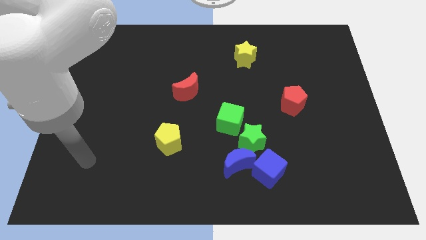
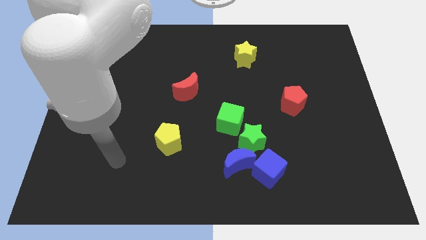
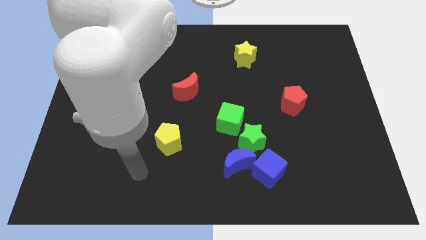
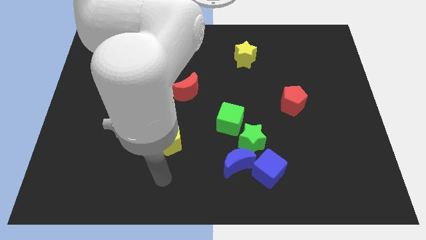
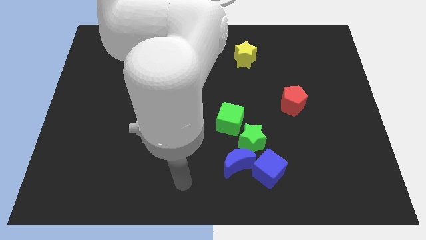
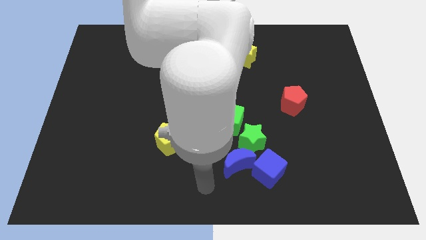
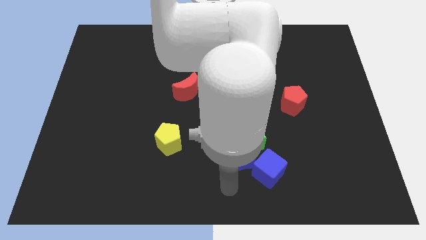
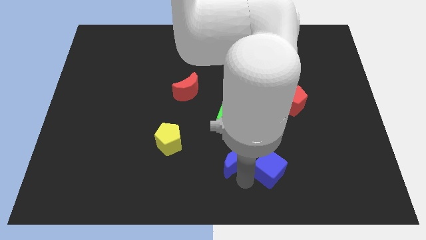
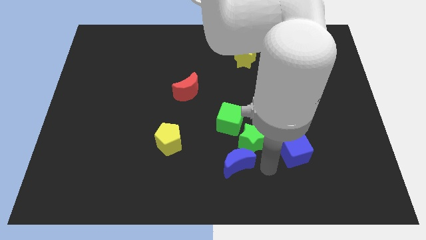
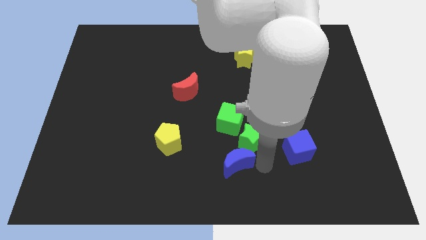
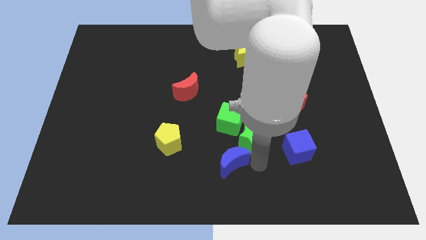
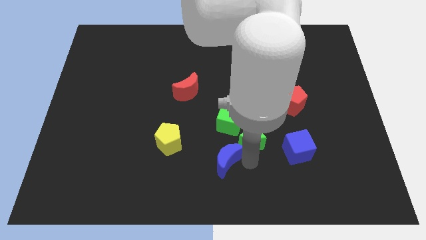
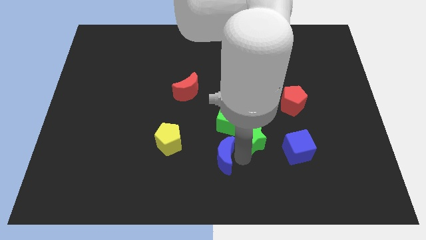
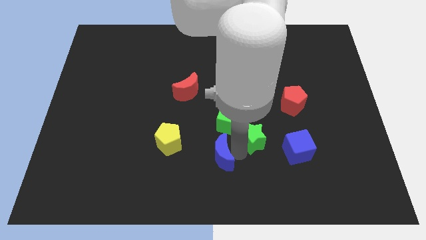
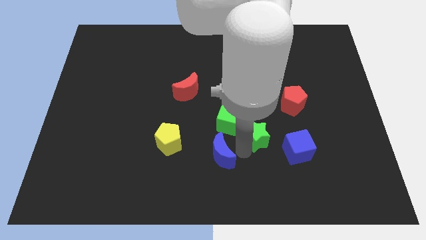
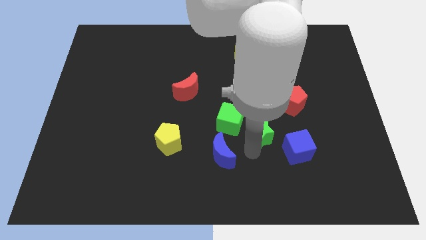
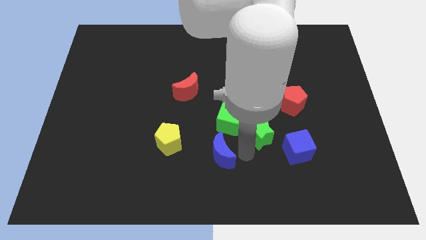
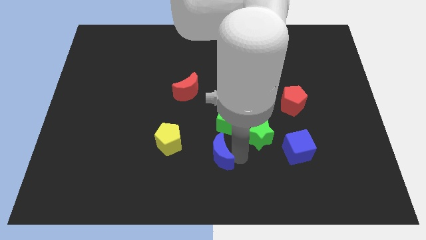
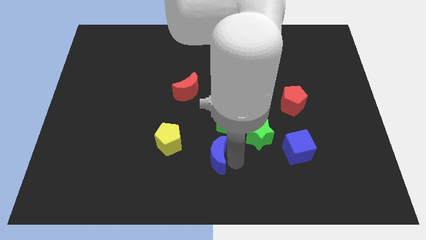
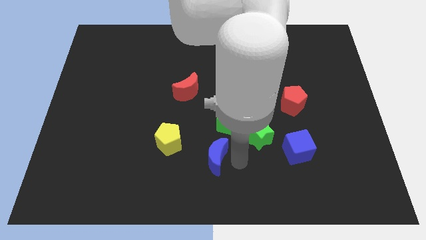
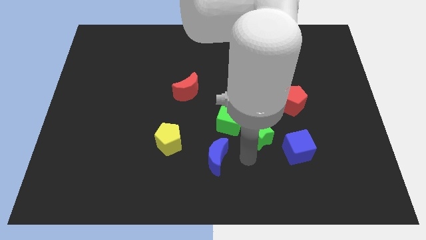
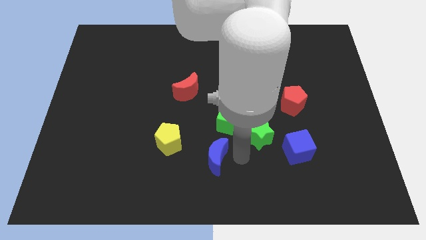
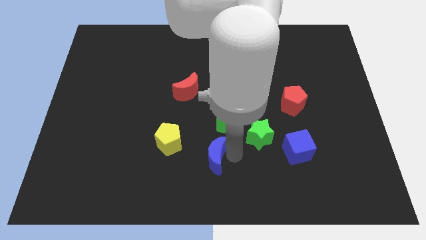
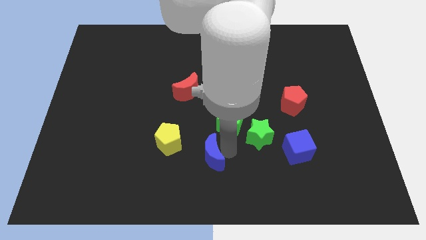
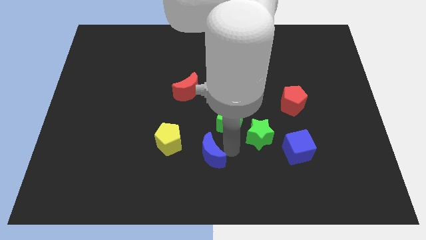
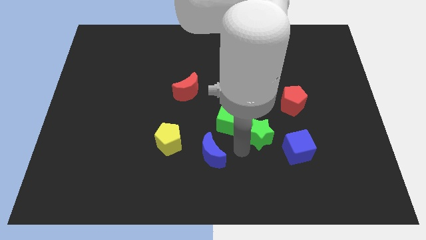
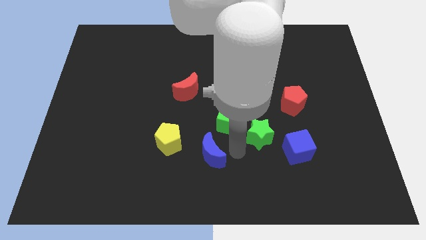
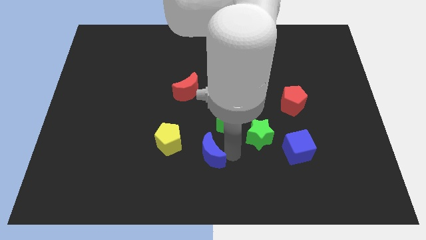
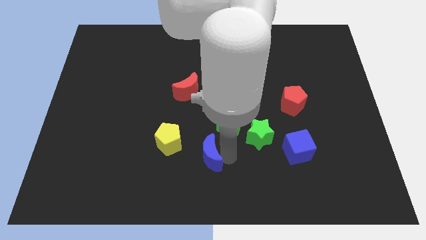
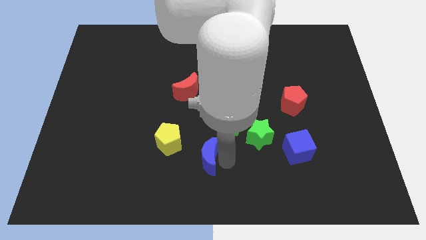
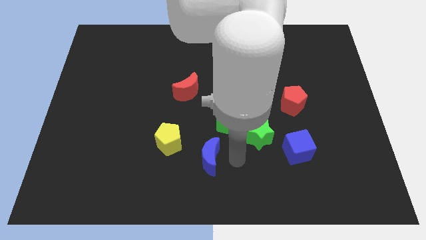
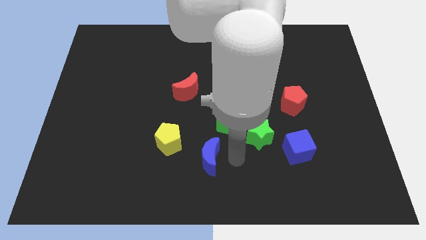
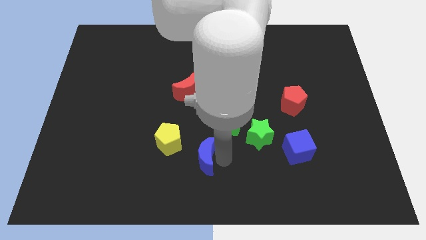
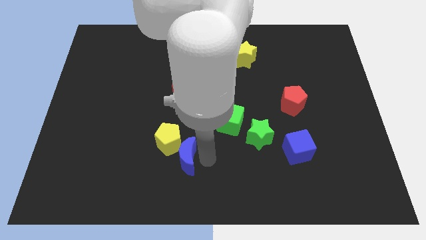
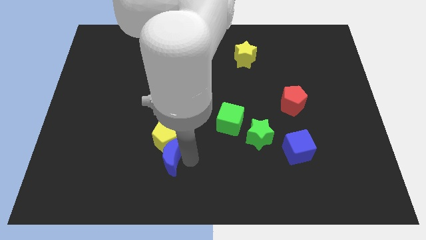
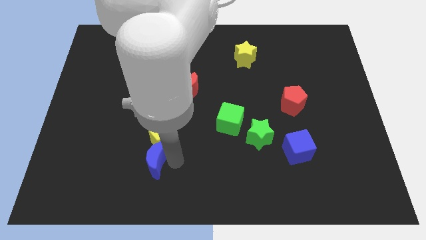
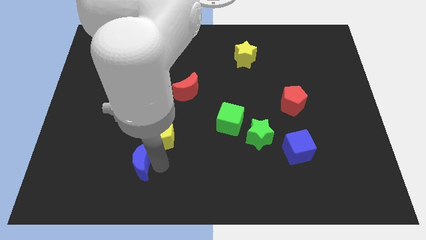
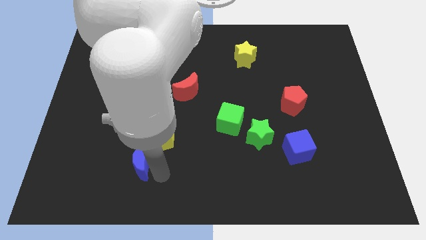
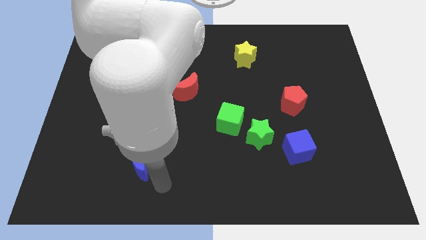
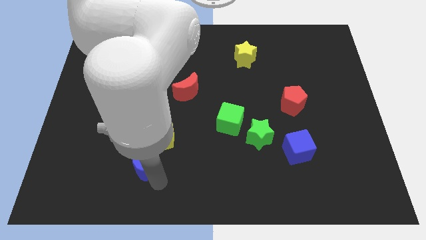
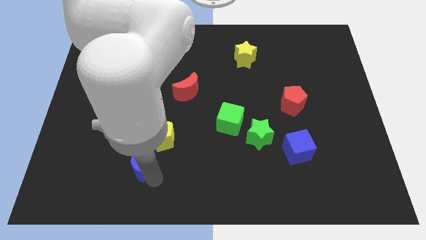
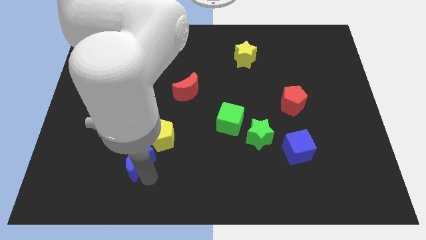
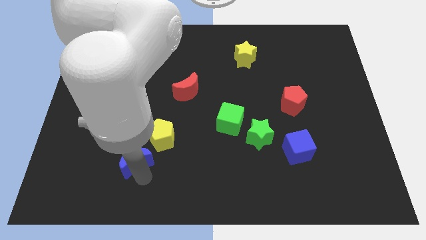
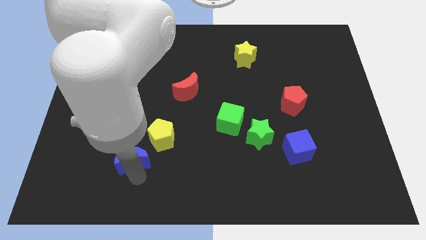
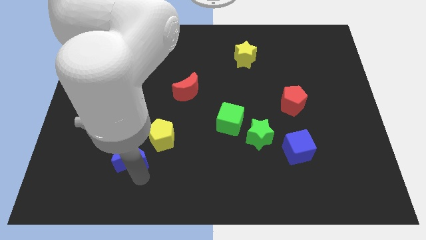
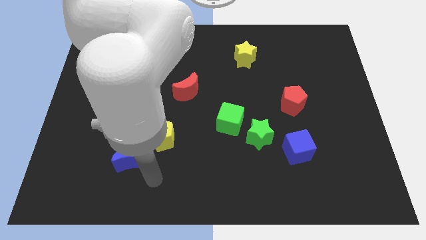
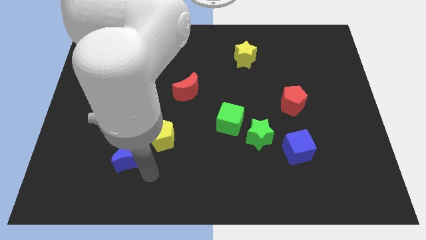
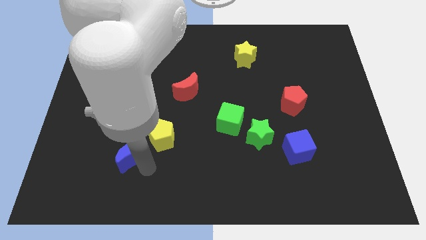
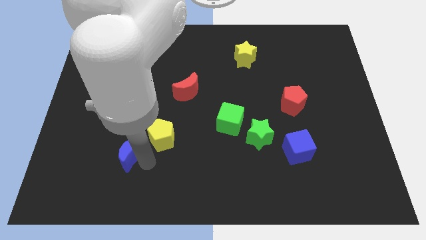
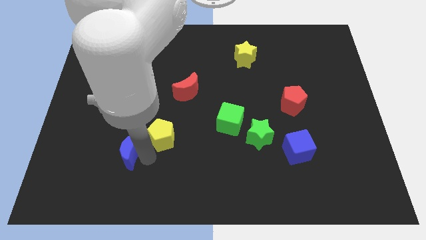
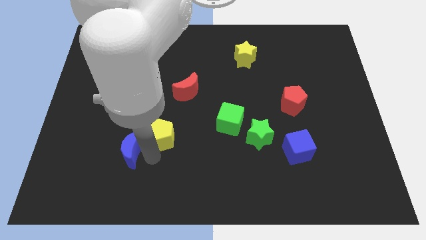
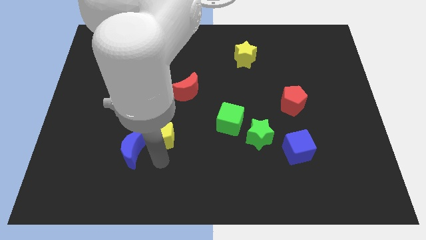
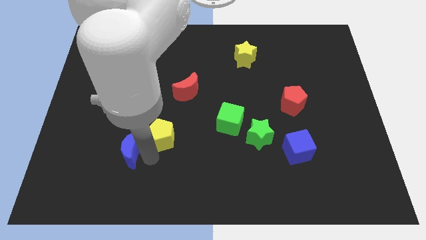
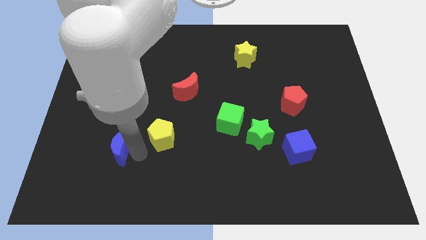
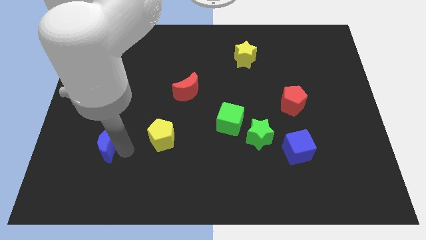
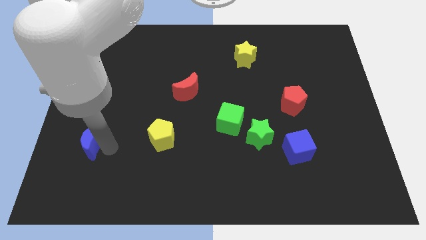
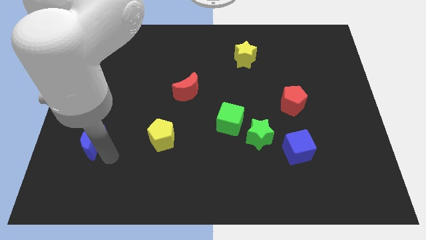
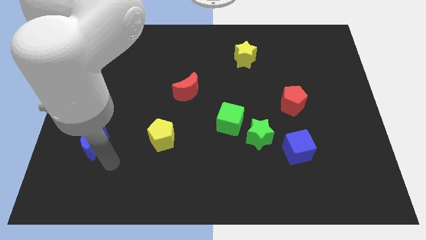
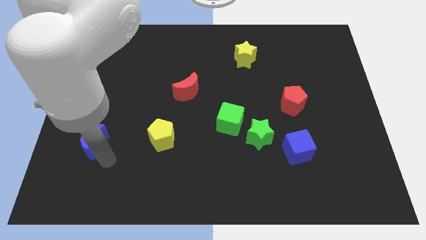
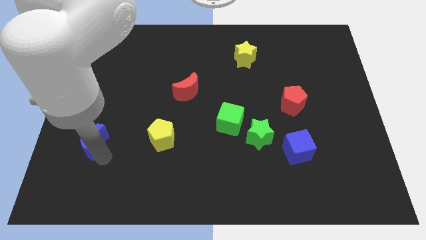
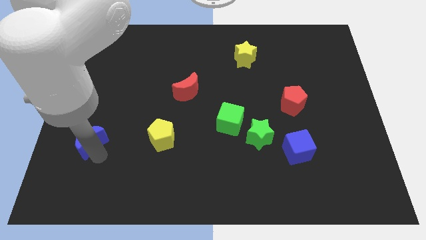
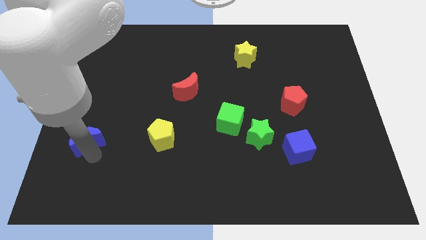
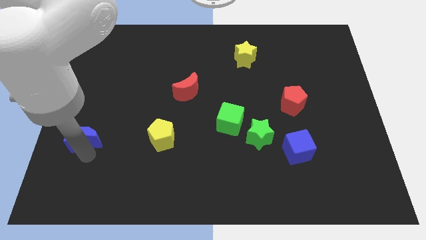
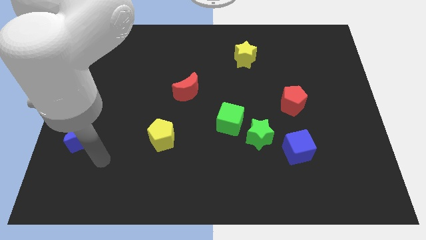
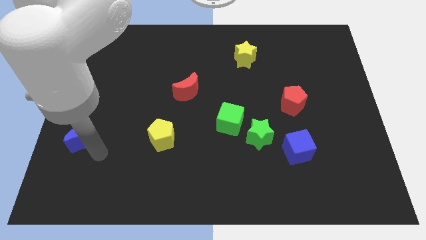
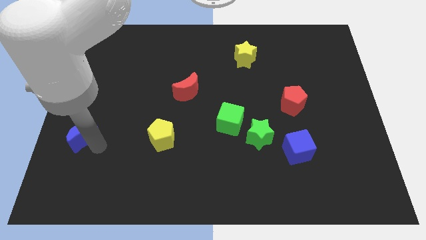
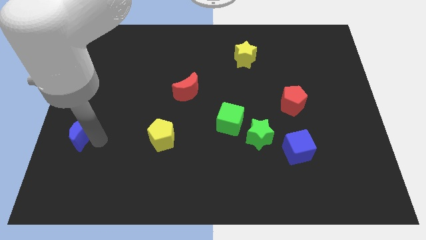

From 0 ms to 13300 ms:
put the blue moon to the left side of the board
